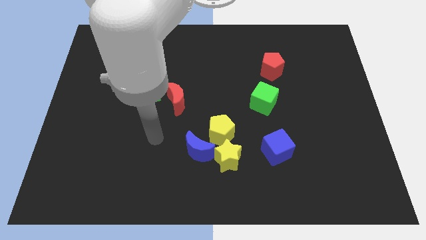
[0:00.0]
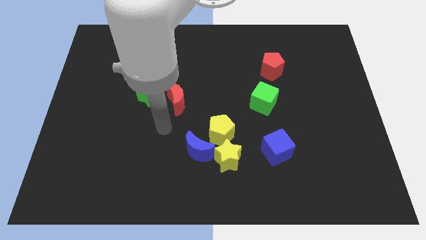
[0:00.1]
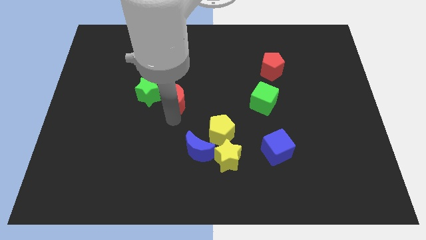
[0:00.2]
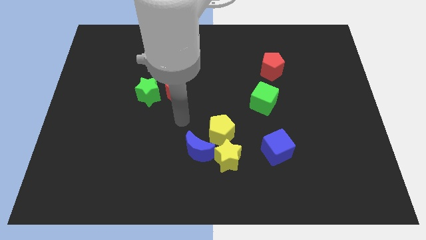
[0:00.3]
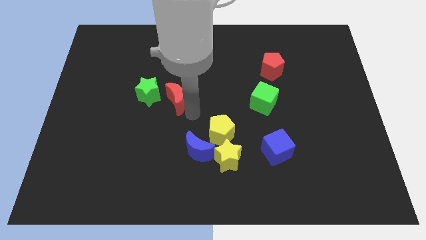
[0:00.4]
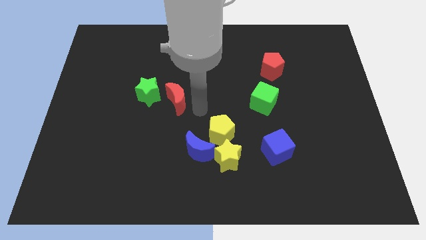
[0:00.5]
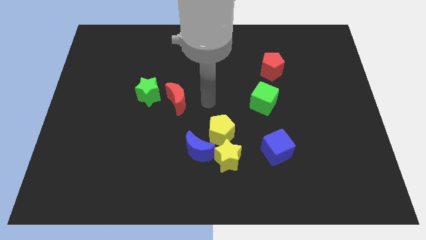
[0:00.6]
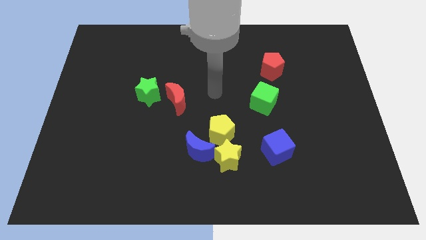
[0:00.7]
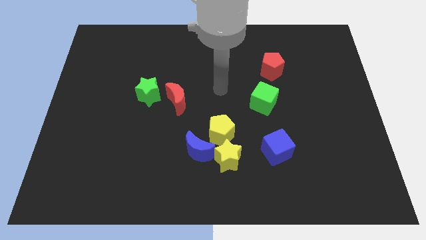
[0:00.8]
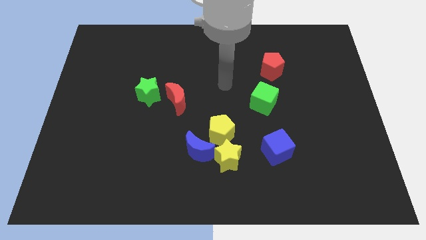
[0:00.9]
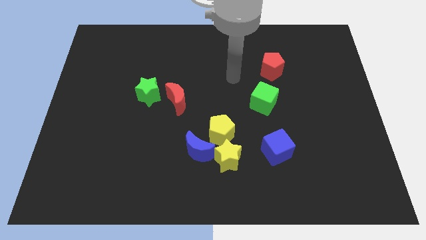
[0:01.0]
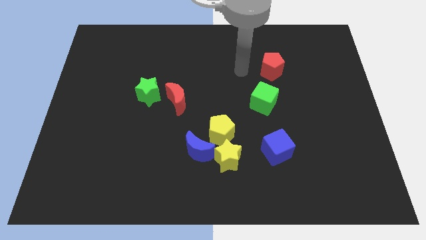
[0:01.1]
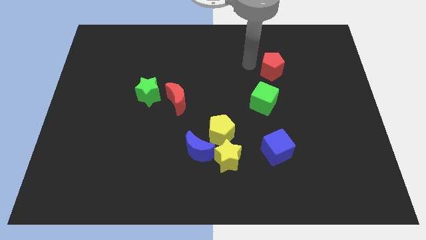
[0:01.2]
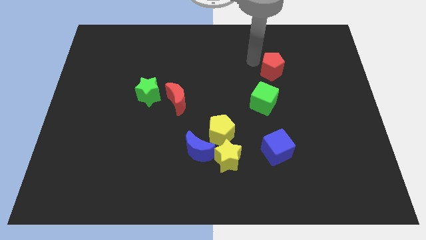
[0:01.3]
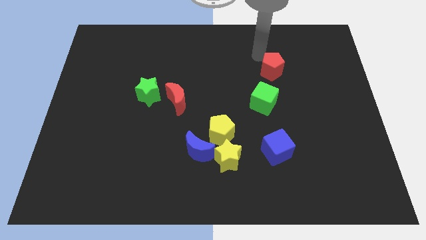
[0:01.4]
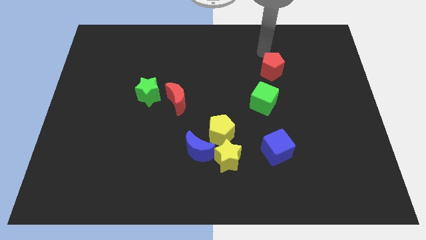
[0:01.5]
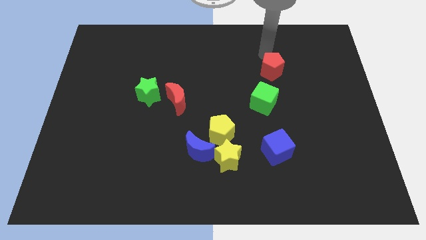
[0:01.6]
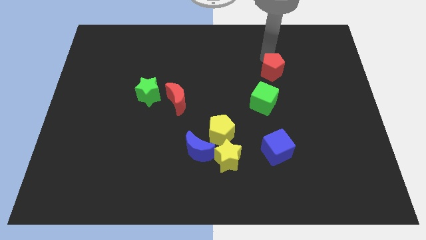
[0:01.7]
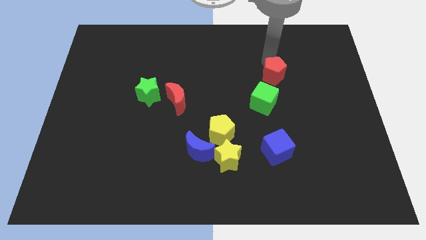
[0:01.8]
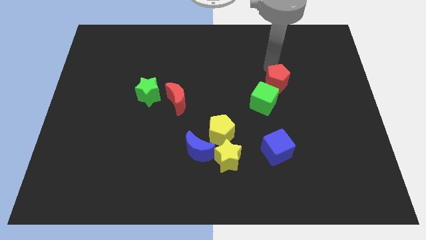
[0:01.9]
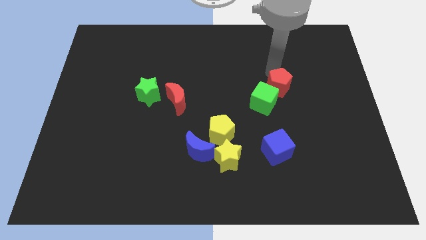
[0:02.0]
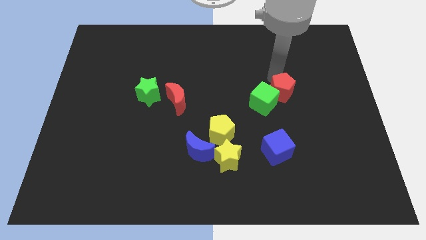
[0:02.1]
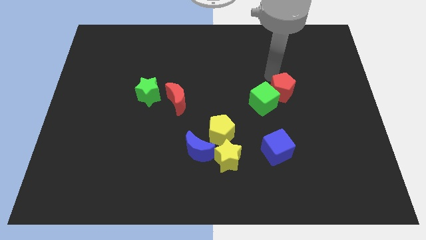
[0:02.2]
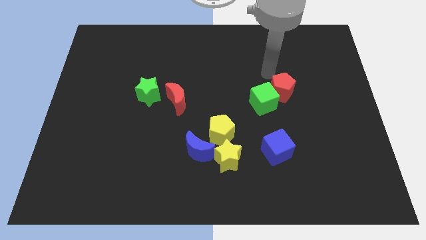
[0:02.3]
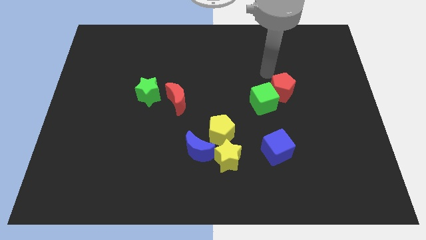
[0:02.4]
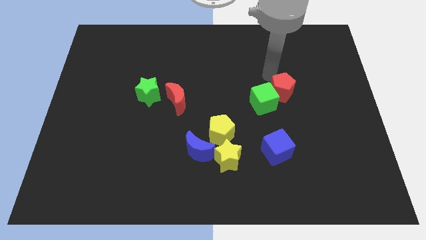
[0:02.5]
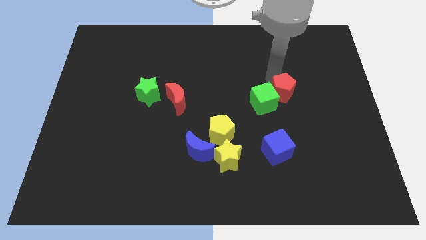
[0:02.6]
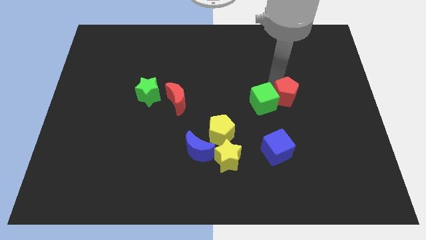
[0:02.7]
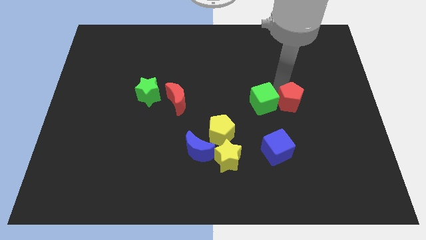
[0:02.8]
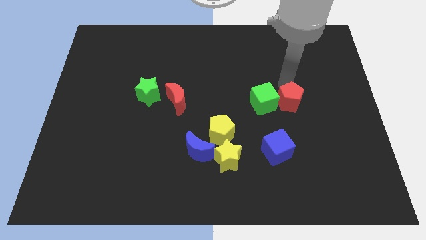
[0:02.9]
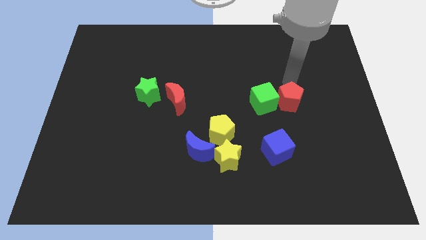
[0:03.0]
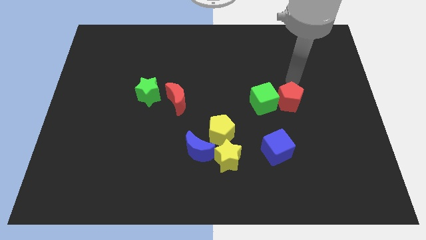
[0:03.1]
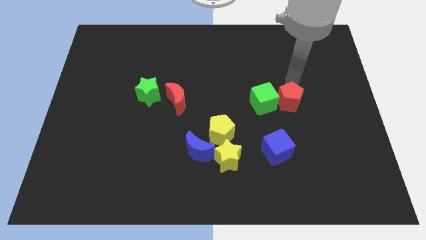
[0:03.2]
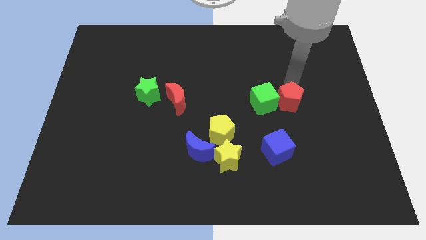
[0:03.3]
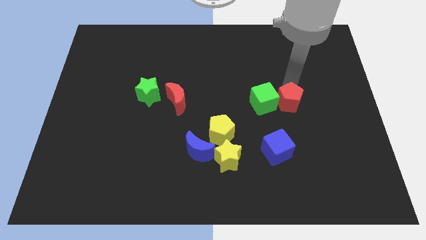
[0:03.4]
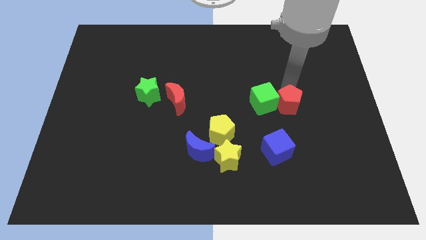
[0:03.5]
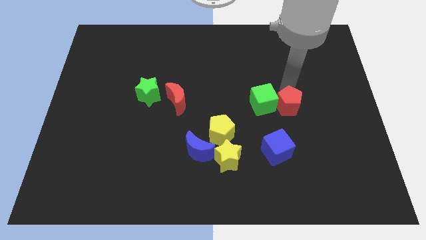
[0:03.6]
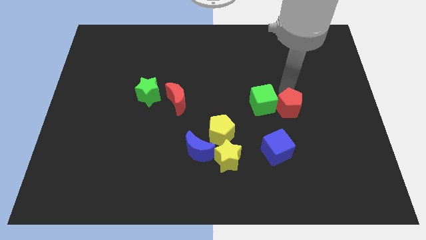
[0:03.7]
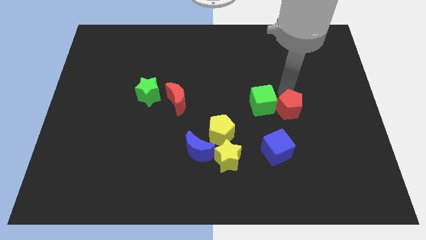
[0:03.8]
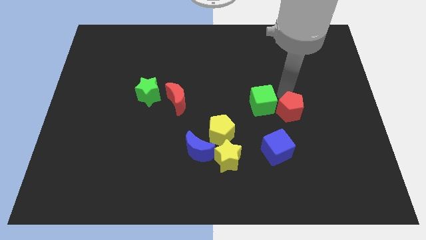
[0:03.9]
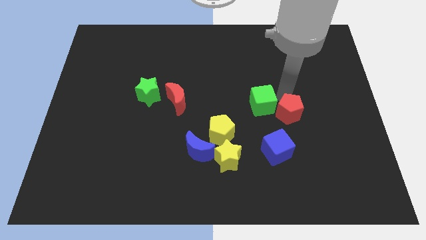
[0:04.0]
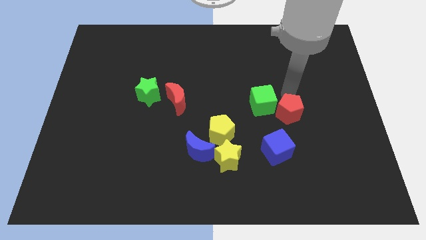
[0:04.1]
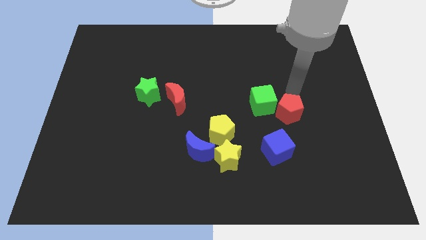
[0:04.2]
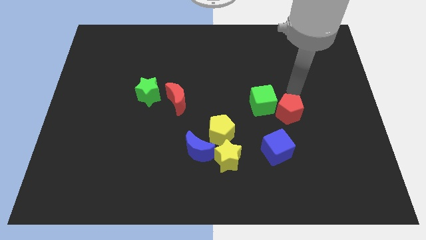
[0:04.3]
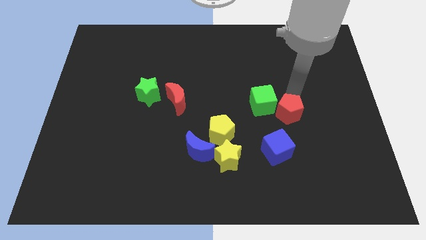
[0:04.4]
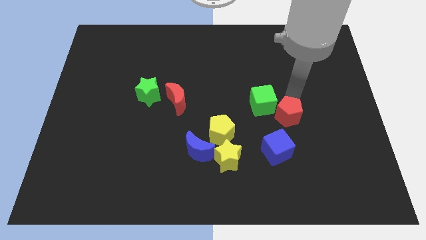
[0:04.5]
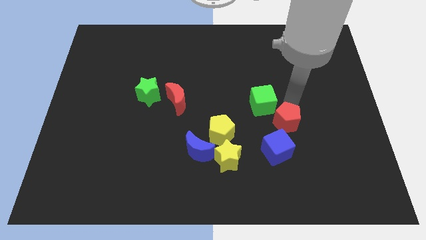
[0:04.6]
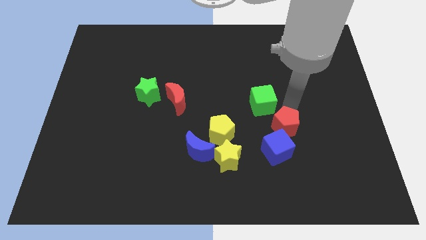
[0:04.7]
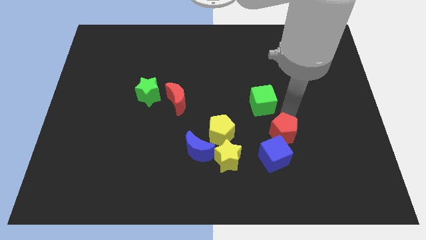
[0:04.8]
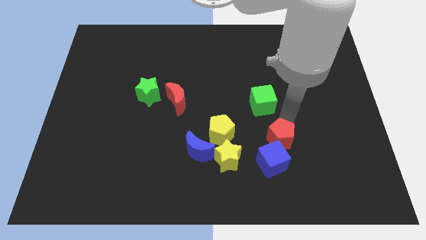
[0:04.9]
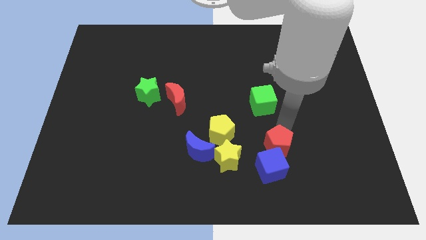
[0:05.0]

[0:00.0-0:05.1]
put the red pentagon towards the blue cube

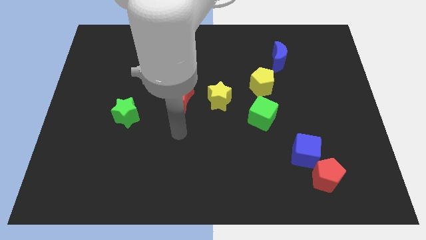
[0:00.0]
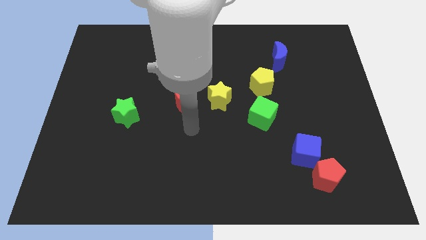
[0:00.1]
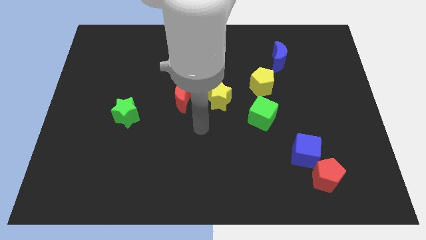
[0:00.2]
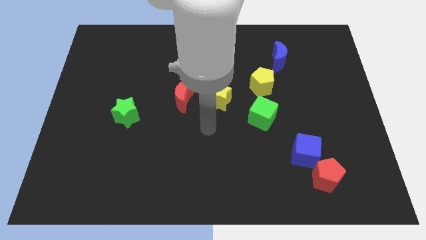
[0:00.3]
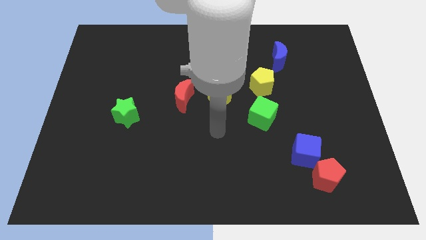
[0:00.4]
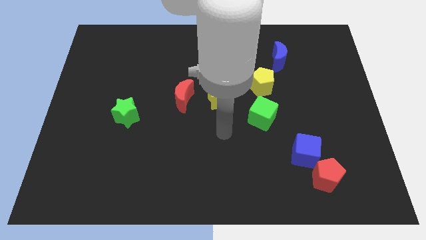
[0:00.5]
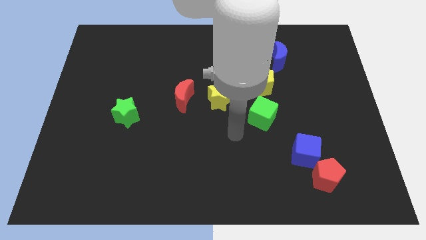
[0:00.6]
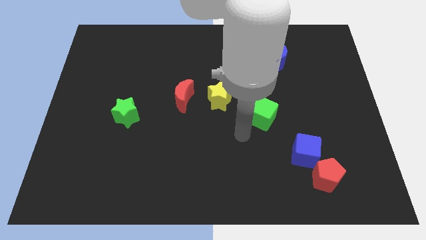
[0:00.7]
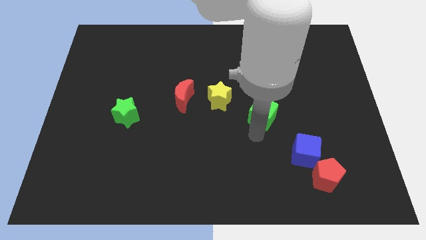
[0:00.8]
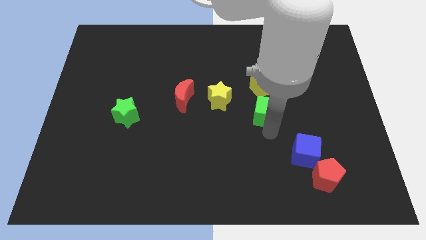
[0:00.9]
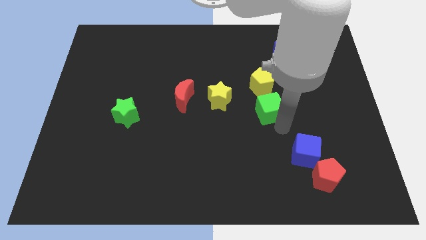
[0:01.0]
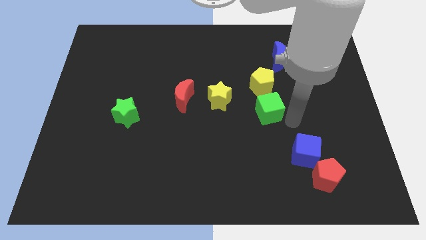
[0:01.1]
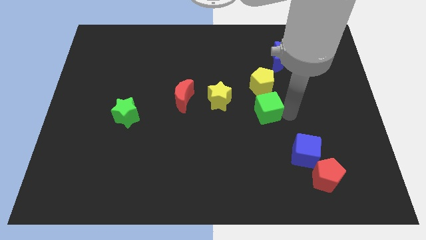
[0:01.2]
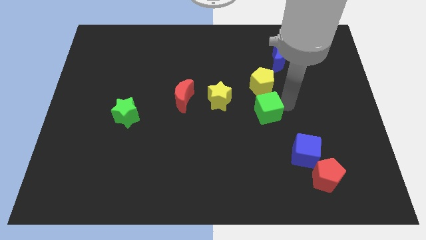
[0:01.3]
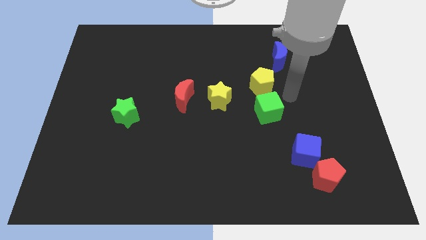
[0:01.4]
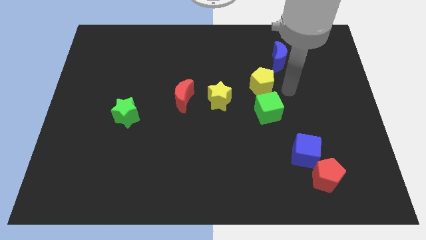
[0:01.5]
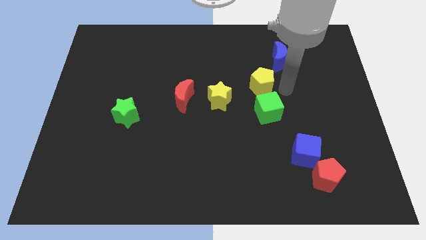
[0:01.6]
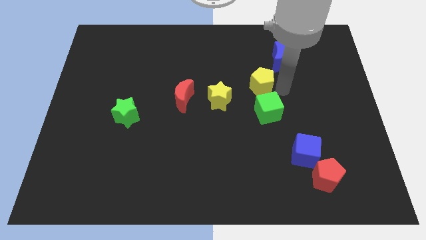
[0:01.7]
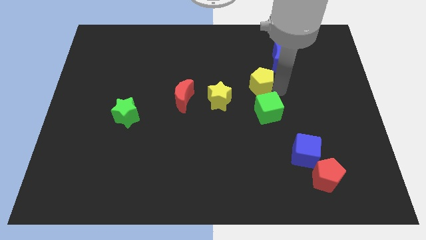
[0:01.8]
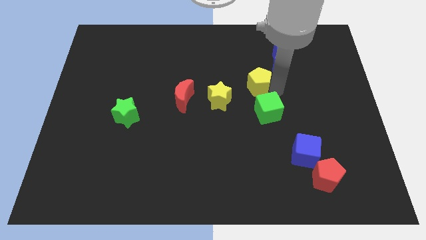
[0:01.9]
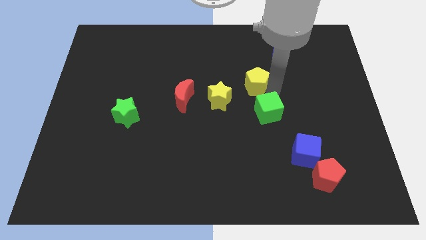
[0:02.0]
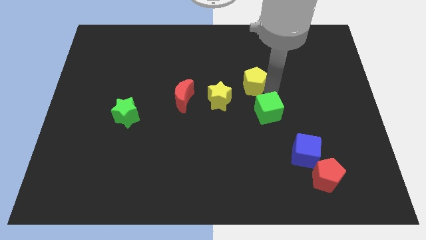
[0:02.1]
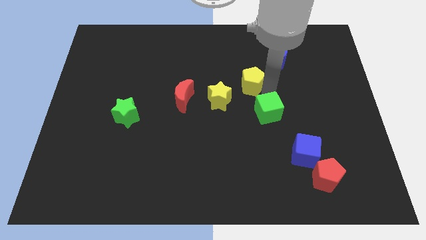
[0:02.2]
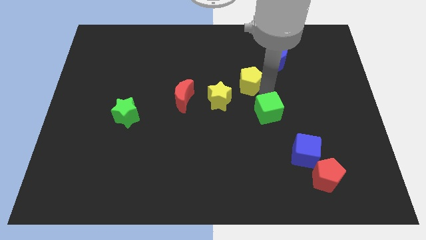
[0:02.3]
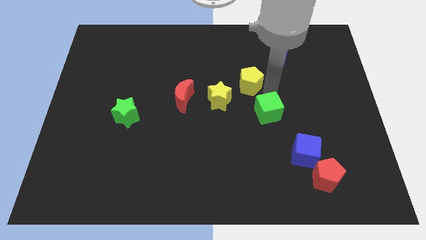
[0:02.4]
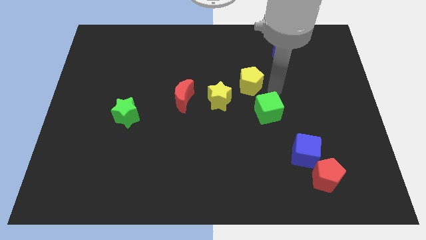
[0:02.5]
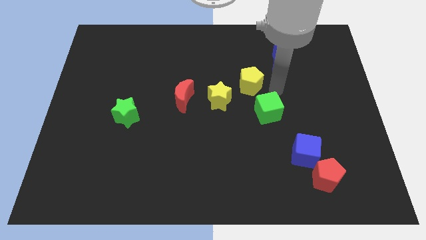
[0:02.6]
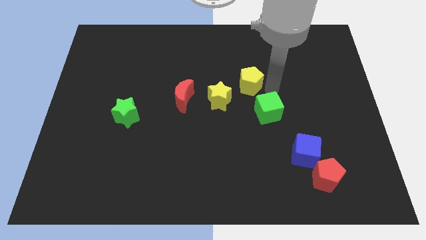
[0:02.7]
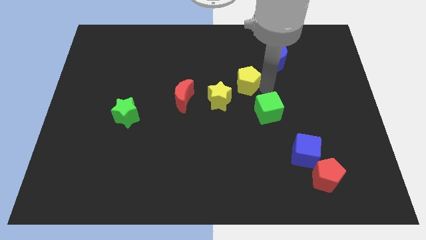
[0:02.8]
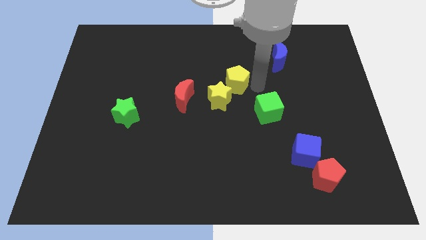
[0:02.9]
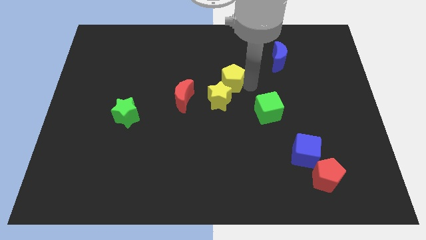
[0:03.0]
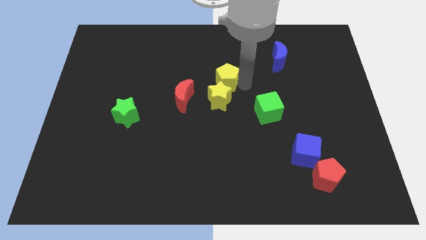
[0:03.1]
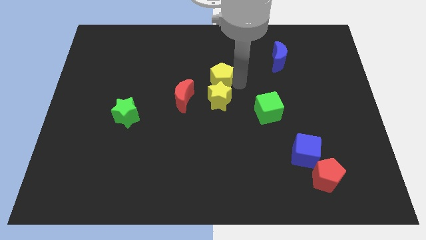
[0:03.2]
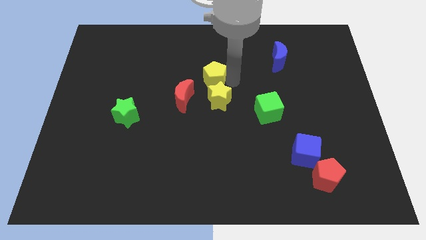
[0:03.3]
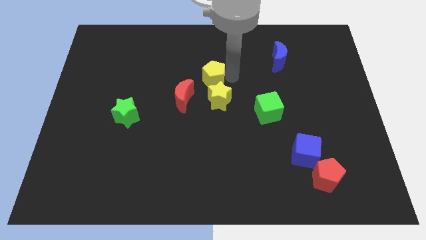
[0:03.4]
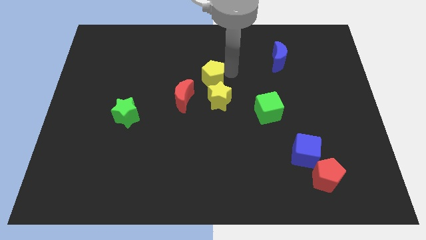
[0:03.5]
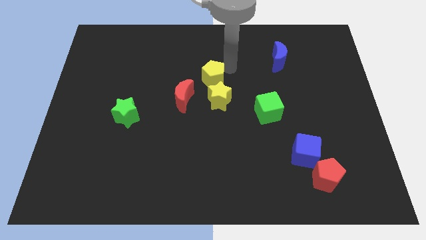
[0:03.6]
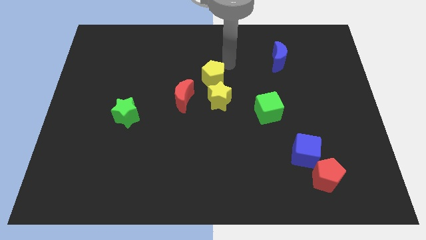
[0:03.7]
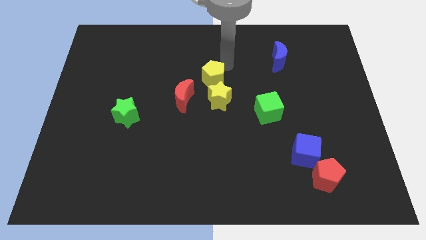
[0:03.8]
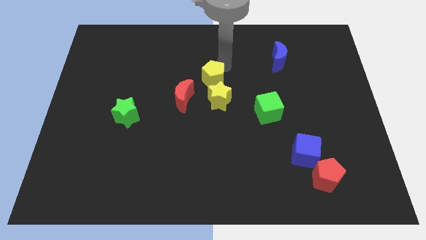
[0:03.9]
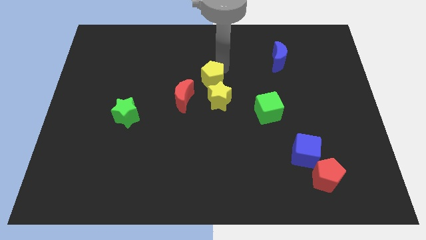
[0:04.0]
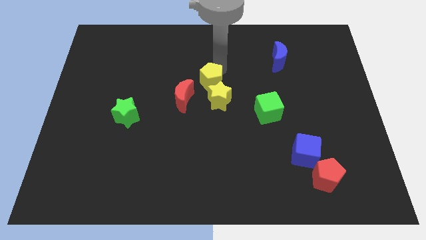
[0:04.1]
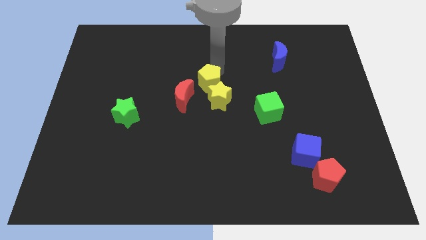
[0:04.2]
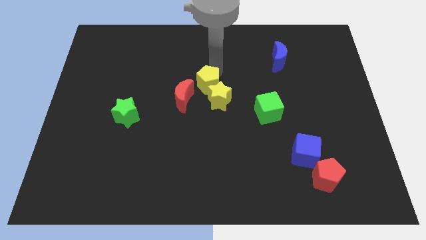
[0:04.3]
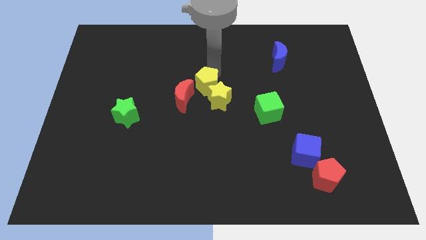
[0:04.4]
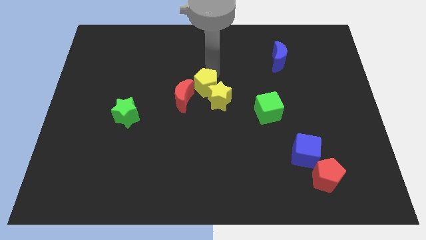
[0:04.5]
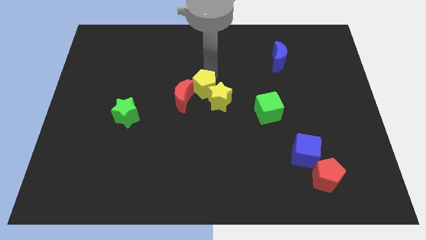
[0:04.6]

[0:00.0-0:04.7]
move the yellow pentagon towards the red moon
